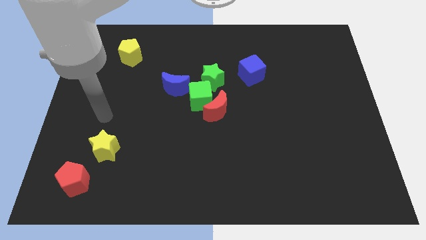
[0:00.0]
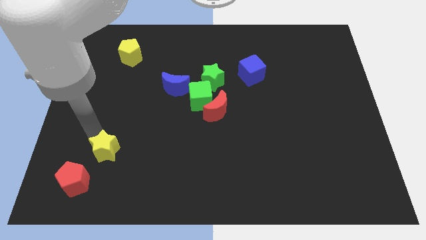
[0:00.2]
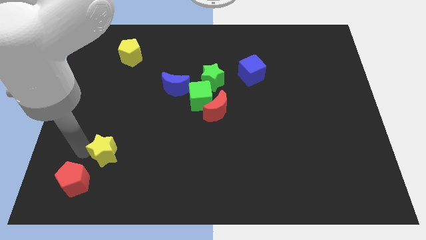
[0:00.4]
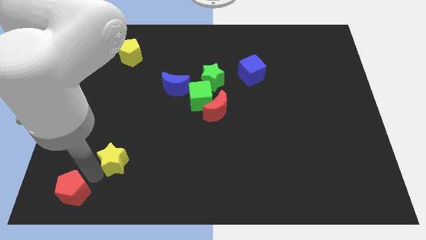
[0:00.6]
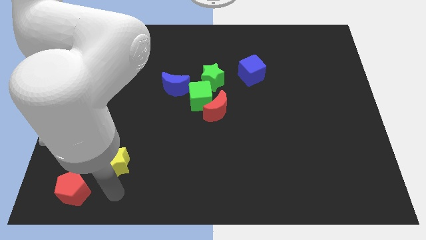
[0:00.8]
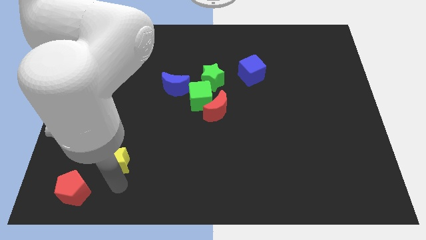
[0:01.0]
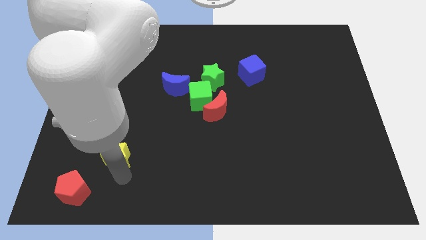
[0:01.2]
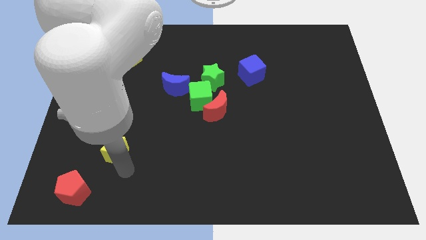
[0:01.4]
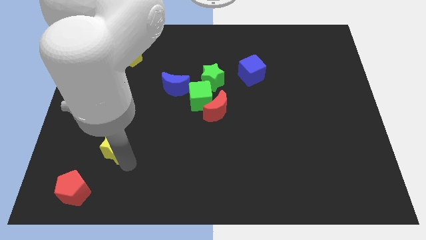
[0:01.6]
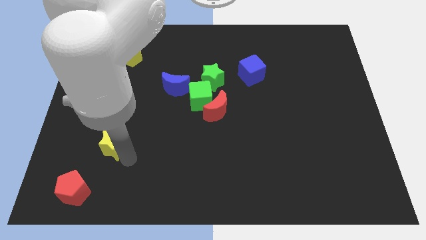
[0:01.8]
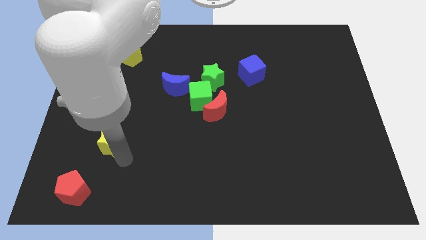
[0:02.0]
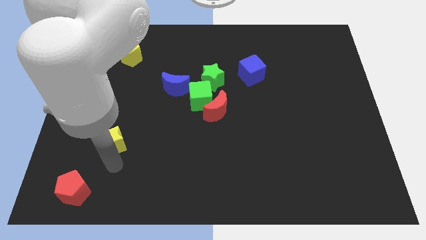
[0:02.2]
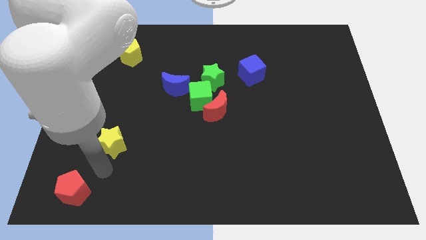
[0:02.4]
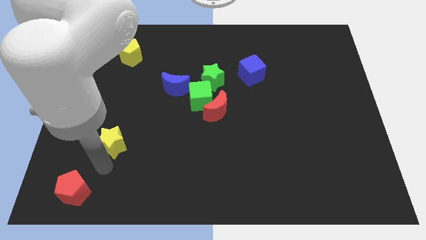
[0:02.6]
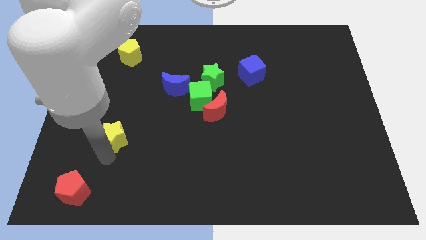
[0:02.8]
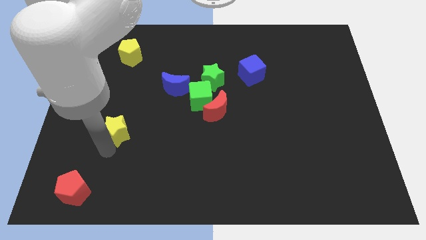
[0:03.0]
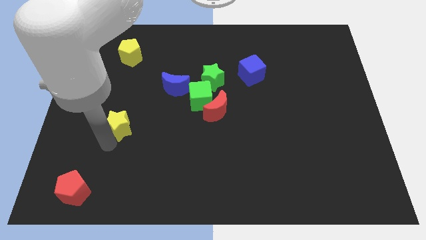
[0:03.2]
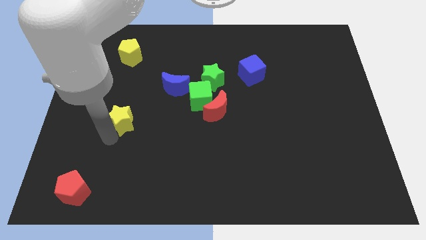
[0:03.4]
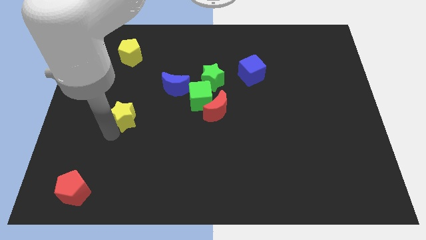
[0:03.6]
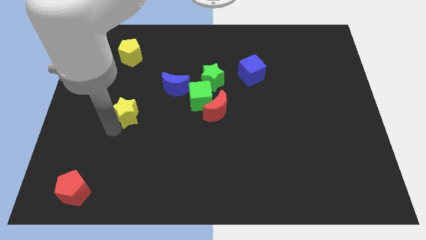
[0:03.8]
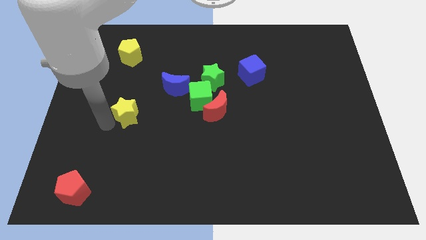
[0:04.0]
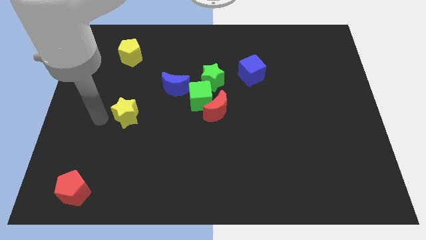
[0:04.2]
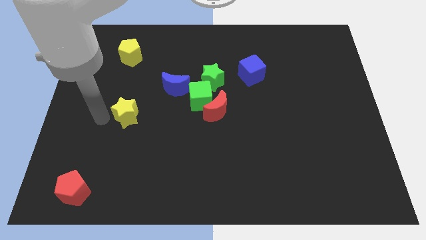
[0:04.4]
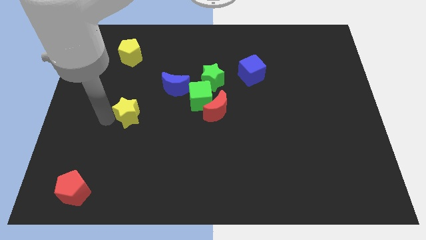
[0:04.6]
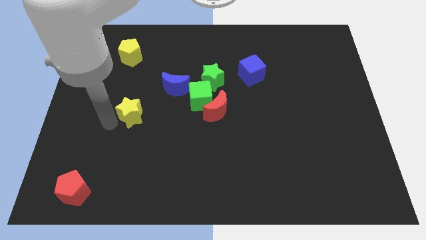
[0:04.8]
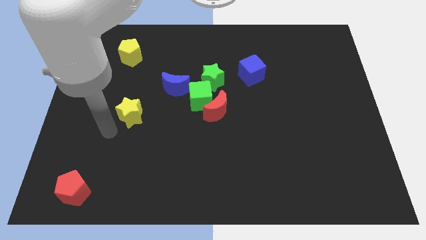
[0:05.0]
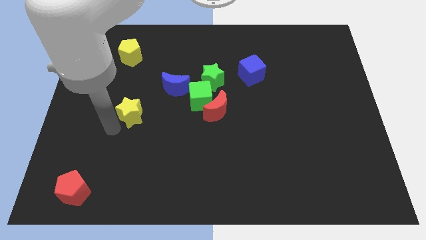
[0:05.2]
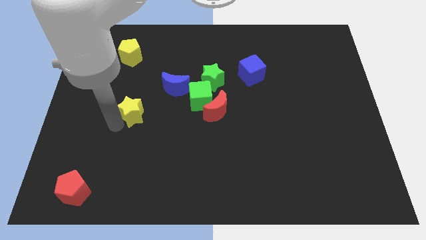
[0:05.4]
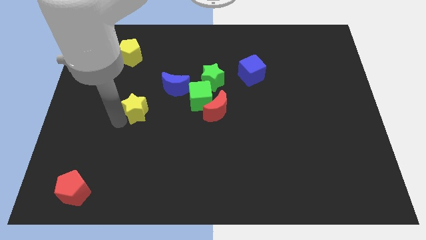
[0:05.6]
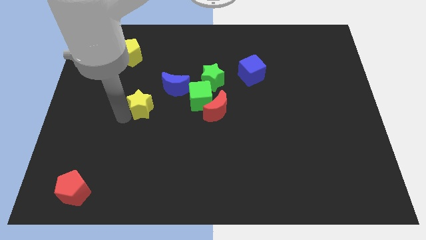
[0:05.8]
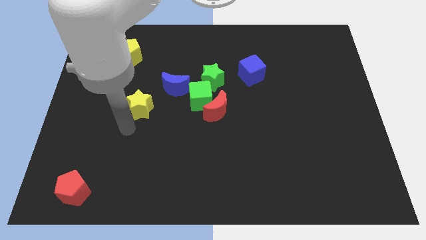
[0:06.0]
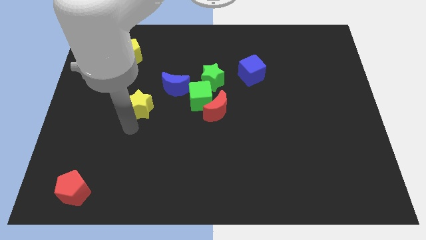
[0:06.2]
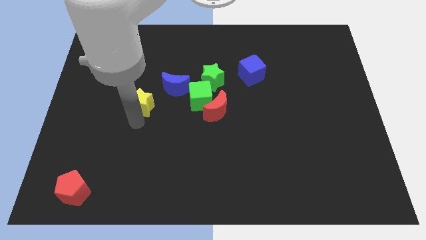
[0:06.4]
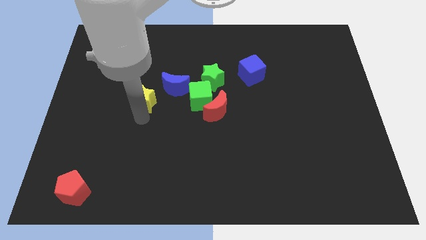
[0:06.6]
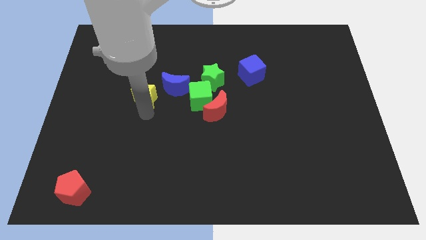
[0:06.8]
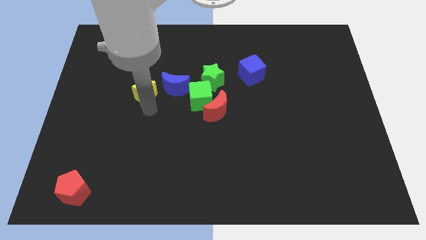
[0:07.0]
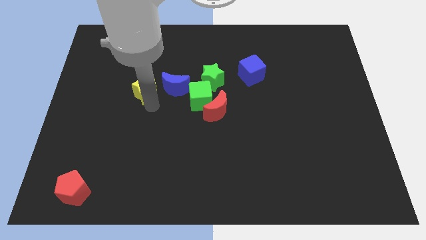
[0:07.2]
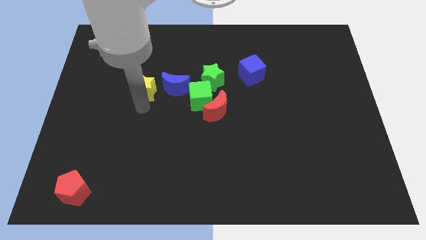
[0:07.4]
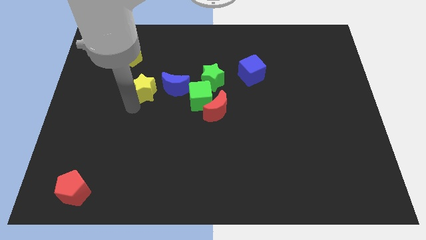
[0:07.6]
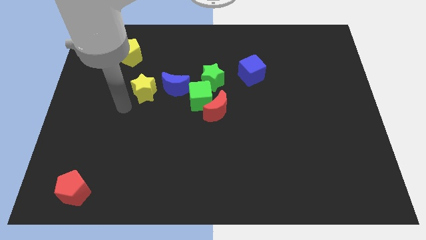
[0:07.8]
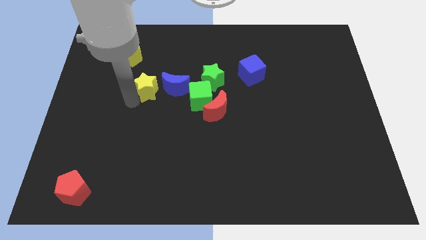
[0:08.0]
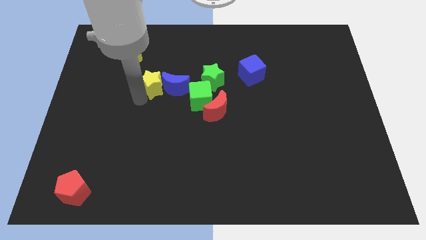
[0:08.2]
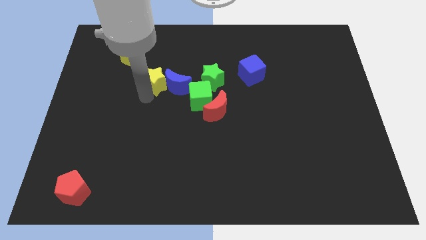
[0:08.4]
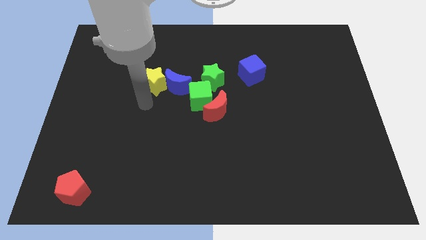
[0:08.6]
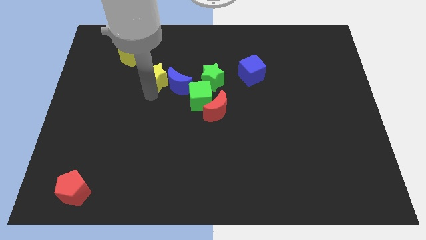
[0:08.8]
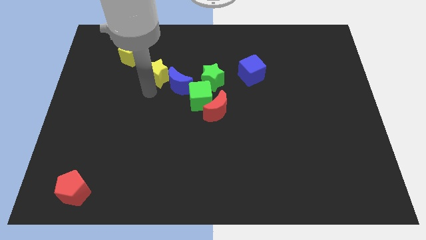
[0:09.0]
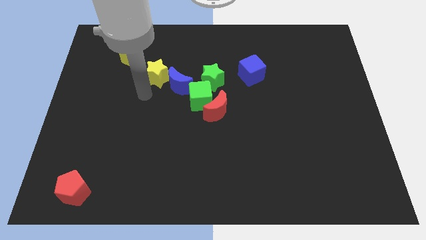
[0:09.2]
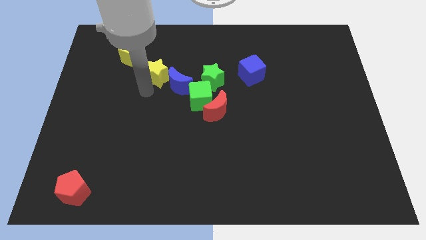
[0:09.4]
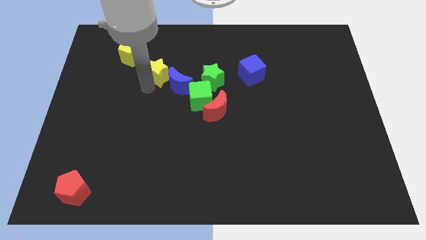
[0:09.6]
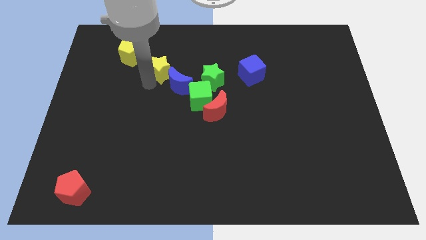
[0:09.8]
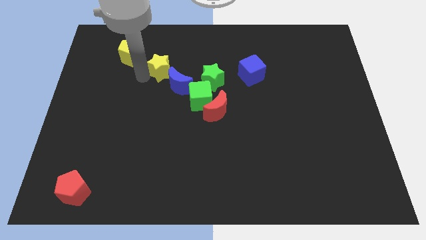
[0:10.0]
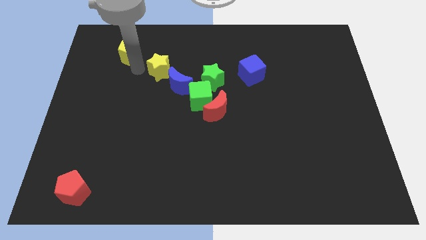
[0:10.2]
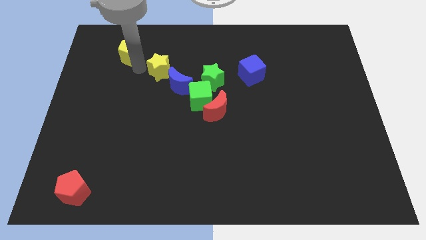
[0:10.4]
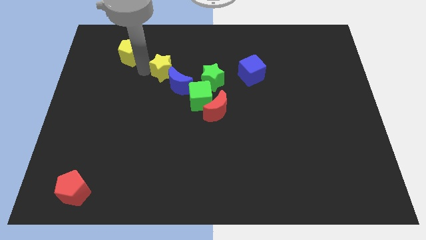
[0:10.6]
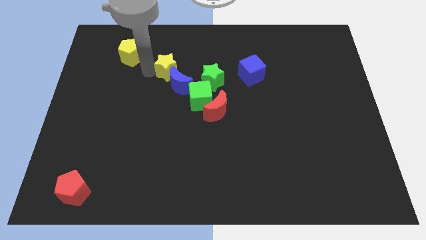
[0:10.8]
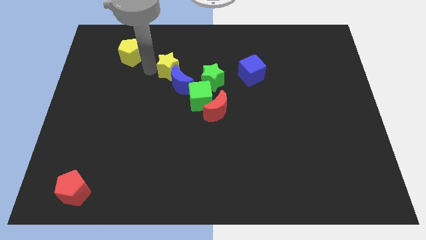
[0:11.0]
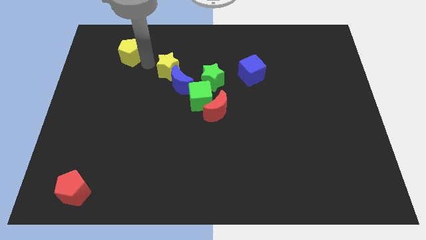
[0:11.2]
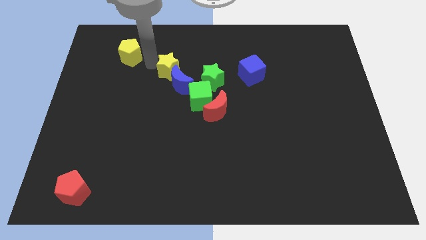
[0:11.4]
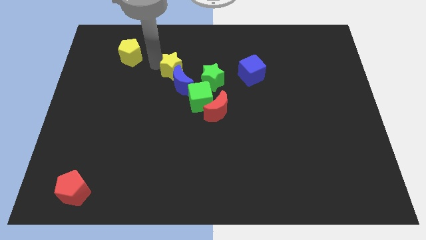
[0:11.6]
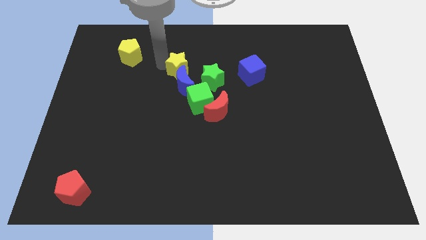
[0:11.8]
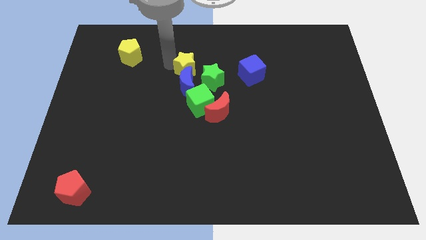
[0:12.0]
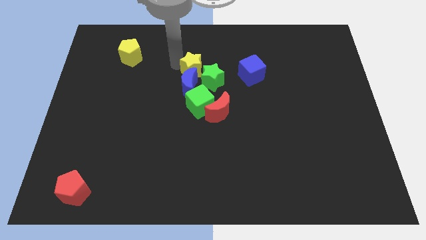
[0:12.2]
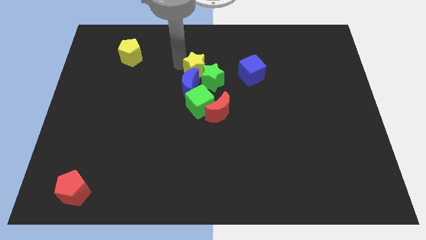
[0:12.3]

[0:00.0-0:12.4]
put the yellow star to the green star

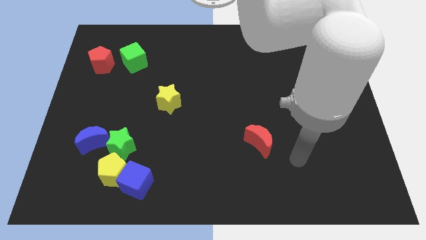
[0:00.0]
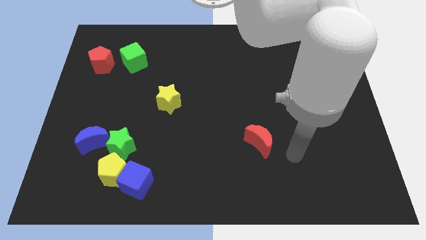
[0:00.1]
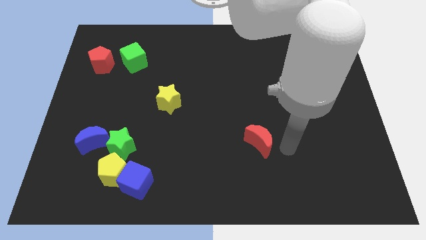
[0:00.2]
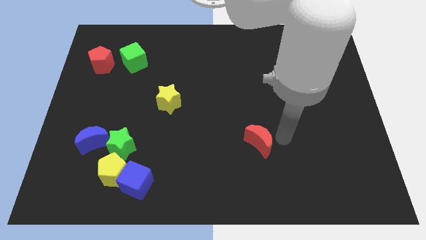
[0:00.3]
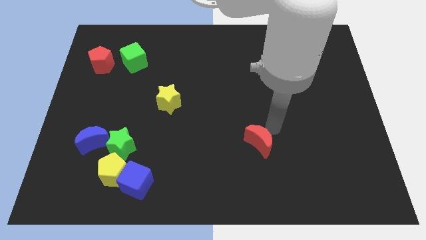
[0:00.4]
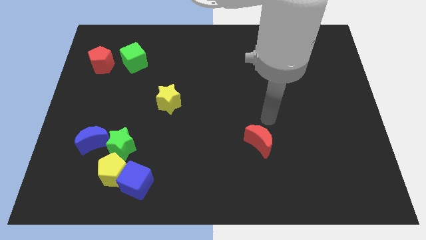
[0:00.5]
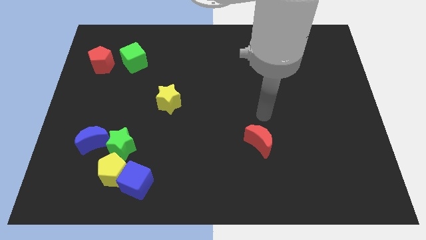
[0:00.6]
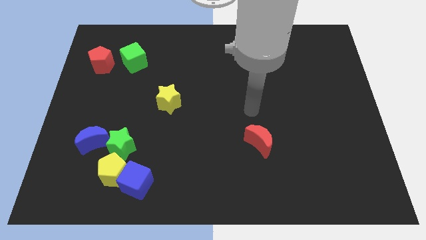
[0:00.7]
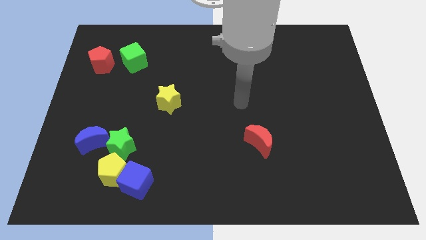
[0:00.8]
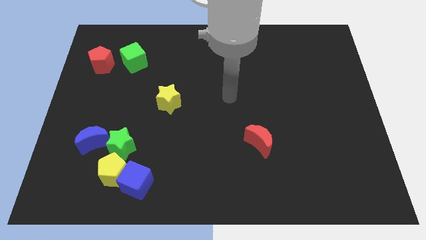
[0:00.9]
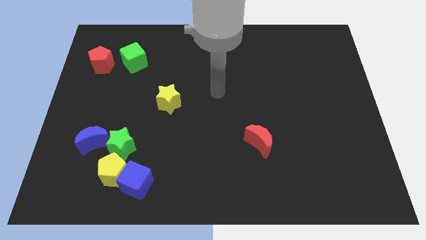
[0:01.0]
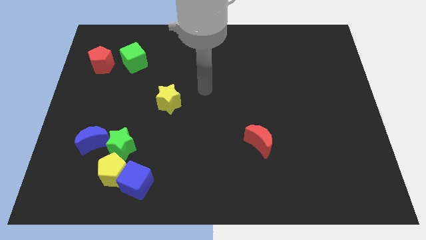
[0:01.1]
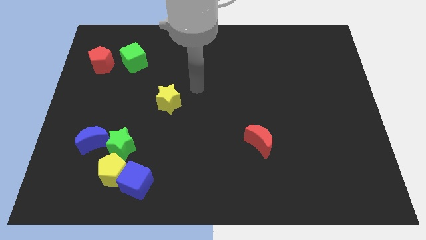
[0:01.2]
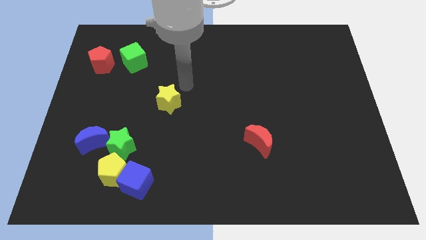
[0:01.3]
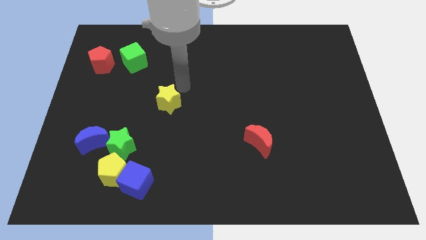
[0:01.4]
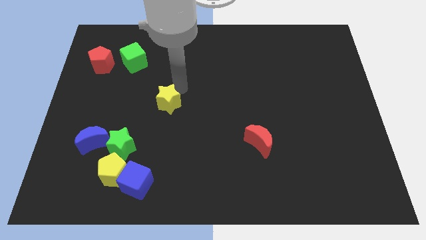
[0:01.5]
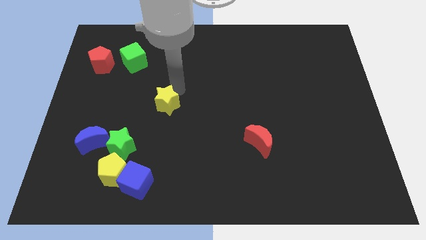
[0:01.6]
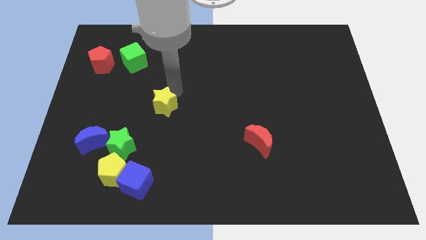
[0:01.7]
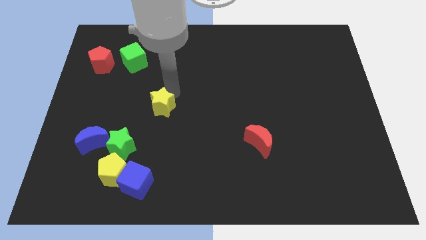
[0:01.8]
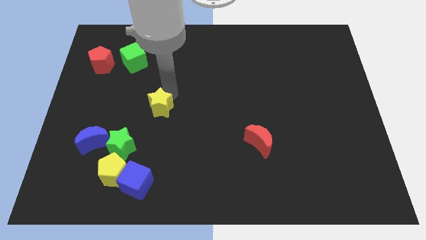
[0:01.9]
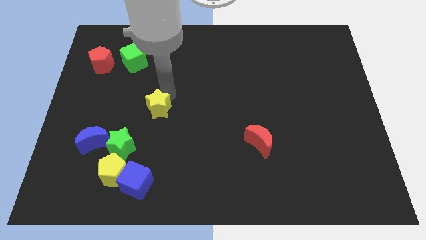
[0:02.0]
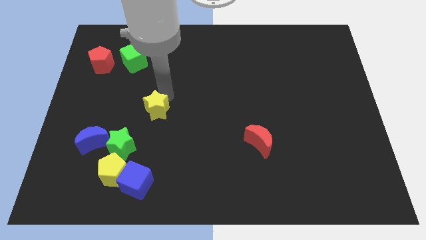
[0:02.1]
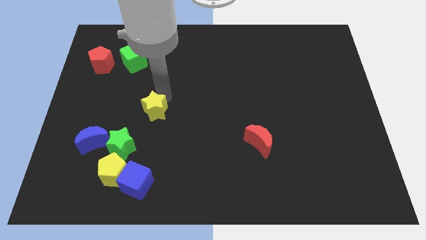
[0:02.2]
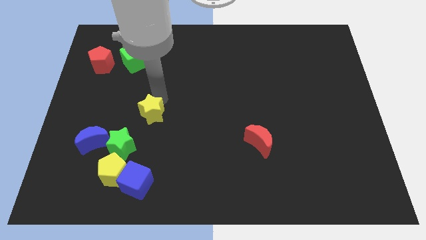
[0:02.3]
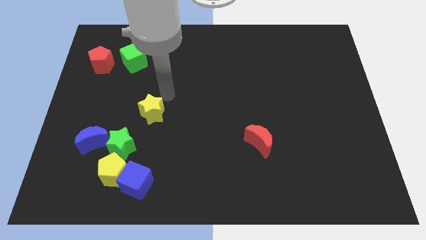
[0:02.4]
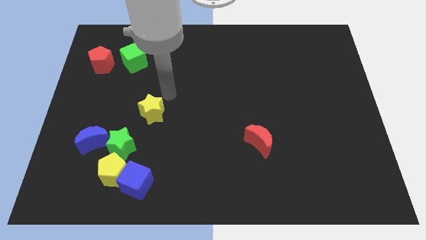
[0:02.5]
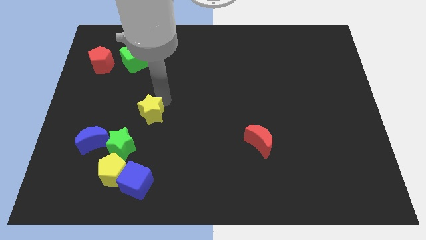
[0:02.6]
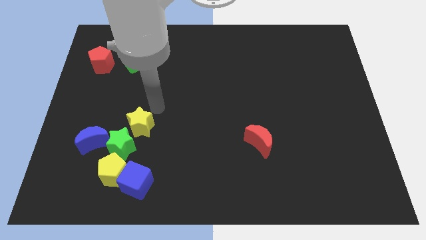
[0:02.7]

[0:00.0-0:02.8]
move the yellow star to the green star
